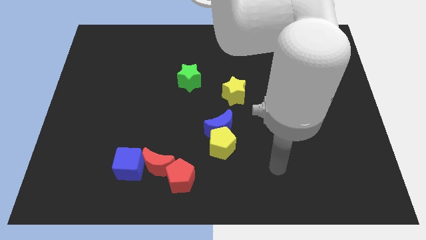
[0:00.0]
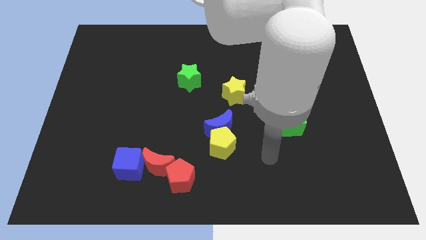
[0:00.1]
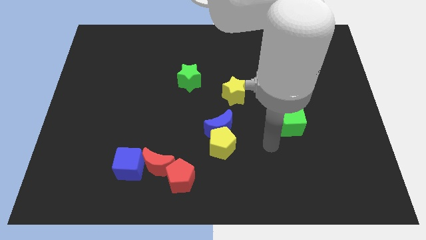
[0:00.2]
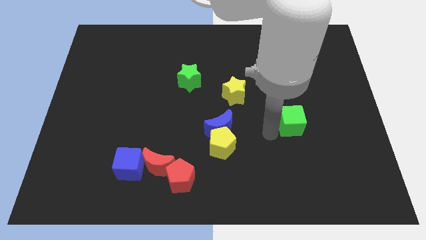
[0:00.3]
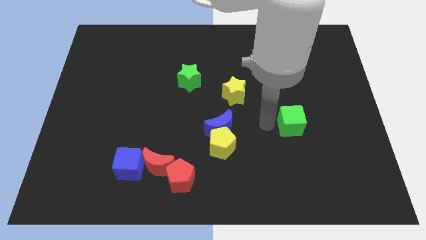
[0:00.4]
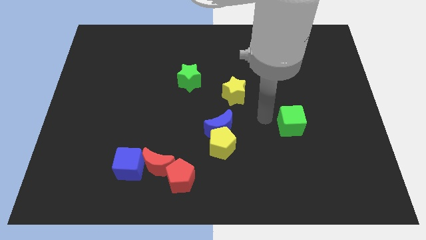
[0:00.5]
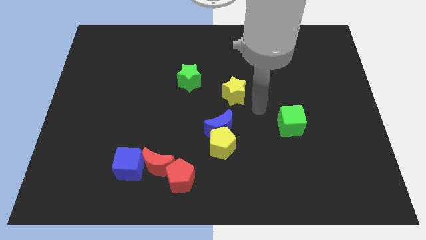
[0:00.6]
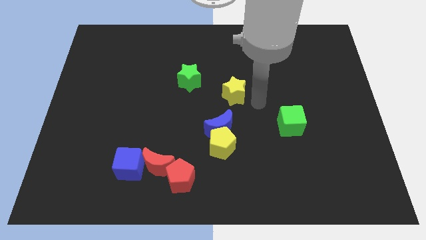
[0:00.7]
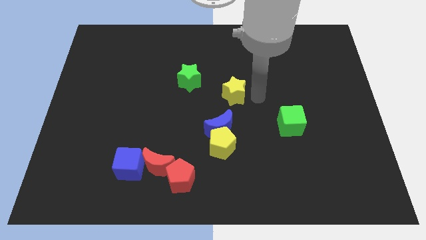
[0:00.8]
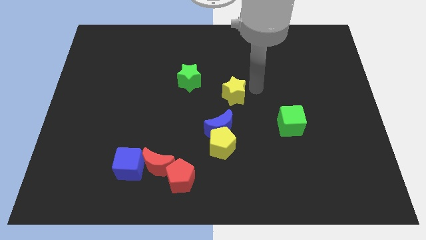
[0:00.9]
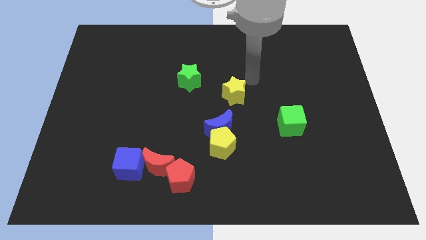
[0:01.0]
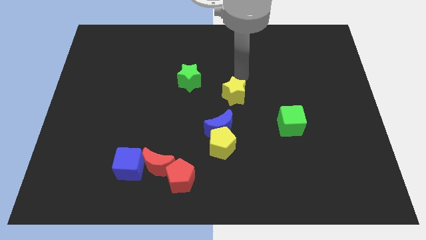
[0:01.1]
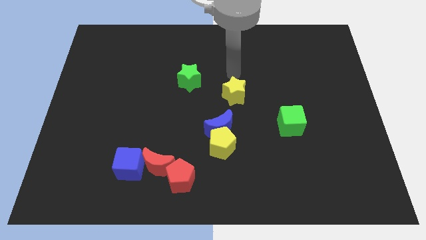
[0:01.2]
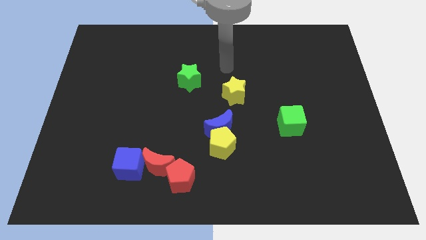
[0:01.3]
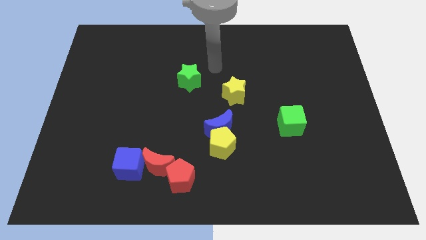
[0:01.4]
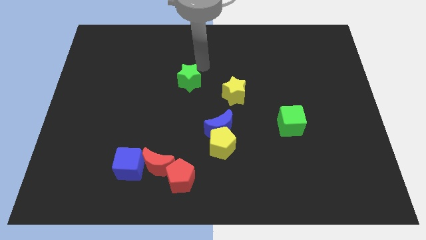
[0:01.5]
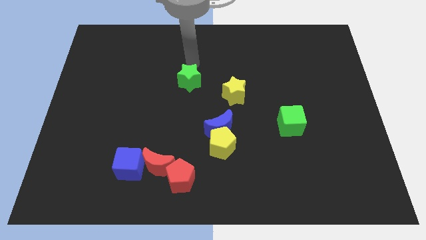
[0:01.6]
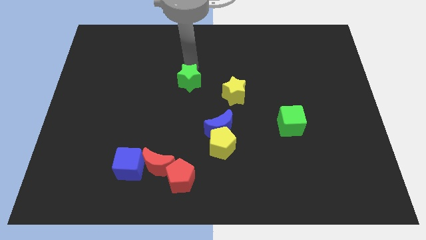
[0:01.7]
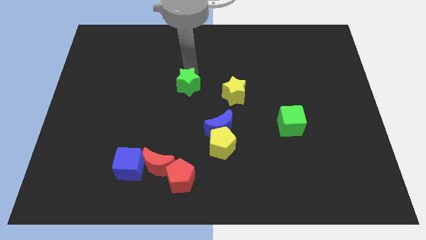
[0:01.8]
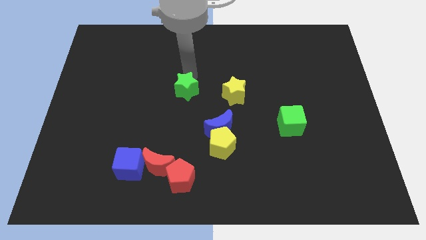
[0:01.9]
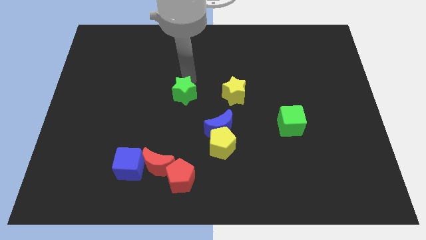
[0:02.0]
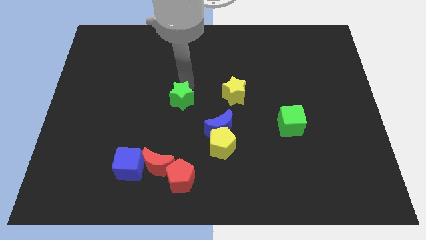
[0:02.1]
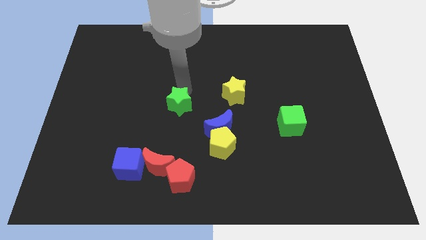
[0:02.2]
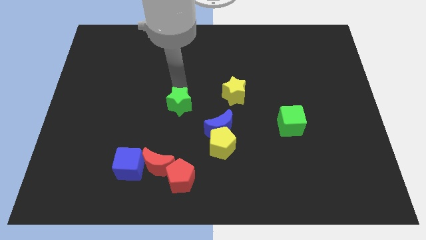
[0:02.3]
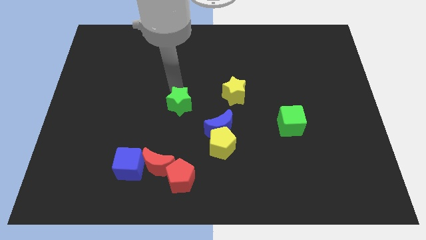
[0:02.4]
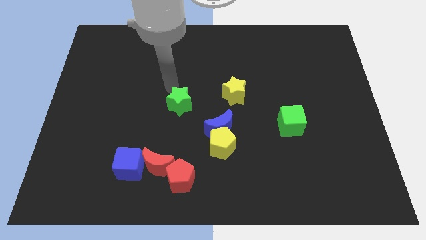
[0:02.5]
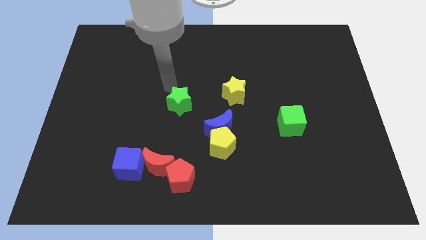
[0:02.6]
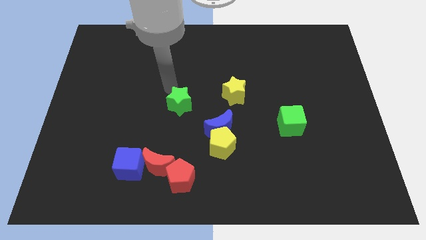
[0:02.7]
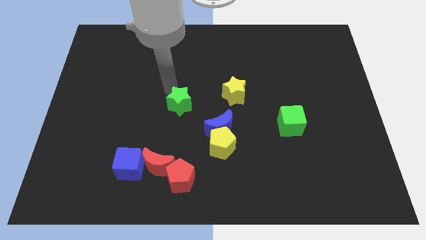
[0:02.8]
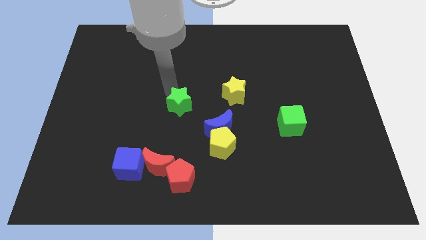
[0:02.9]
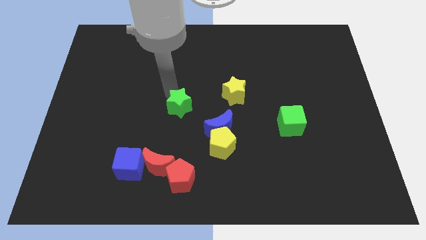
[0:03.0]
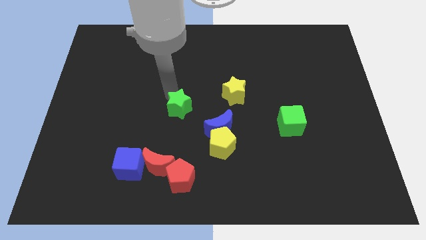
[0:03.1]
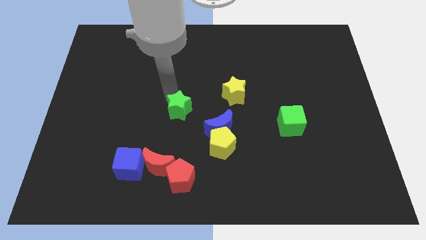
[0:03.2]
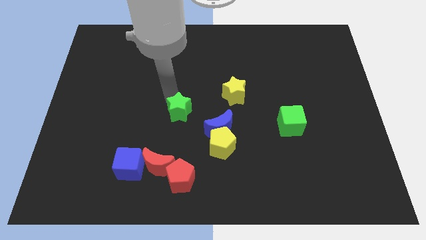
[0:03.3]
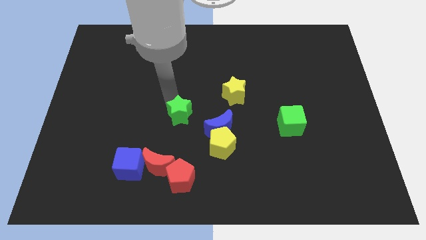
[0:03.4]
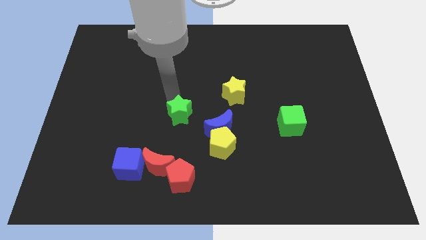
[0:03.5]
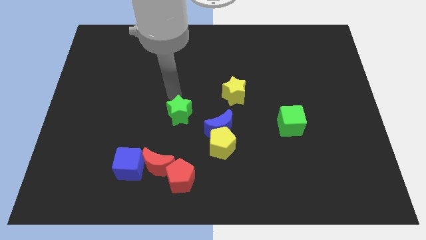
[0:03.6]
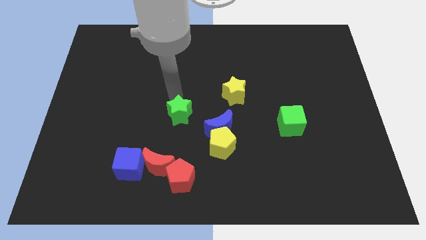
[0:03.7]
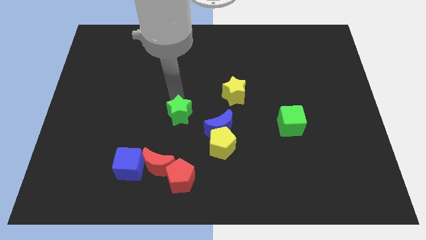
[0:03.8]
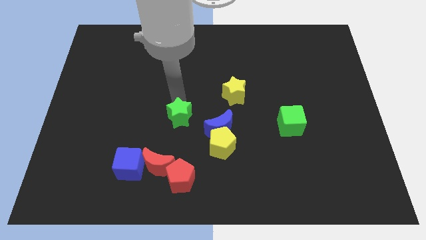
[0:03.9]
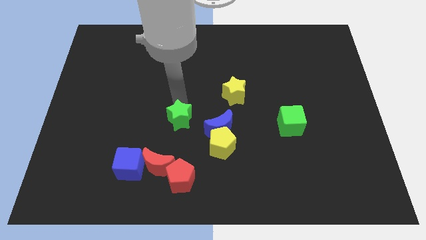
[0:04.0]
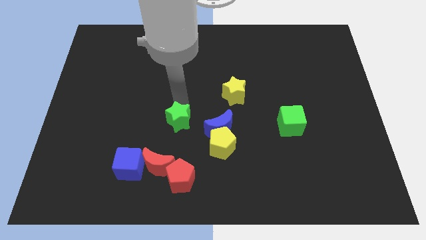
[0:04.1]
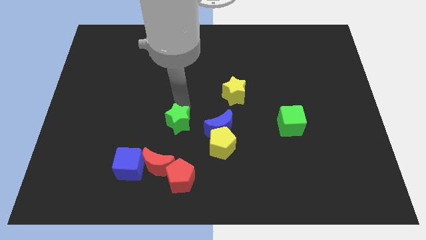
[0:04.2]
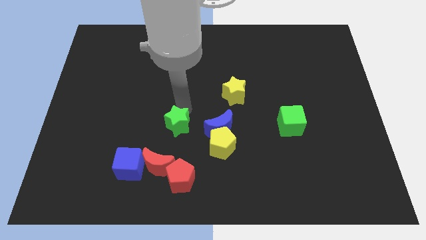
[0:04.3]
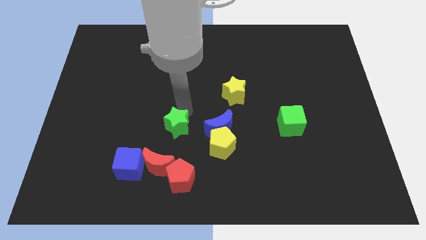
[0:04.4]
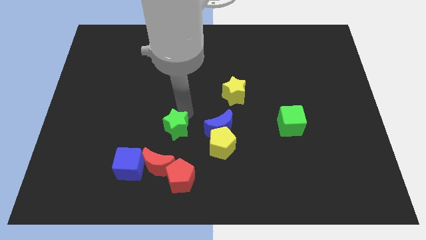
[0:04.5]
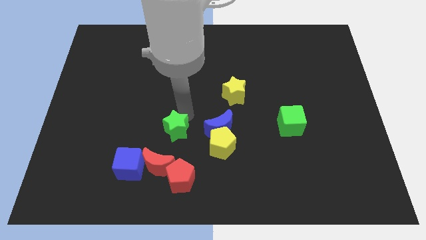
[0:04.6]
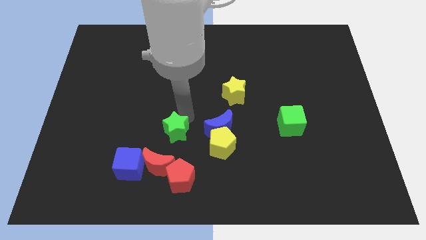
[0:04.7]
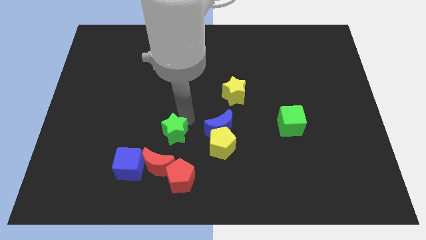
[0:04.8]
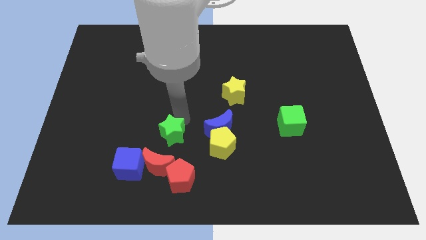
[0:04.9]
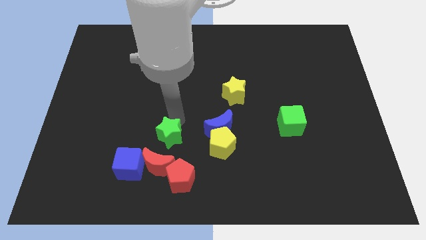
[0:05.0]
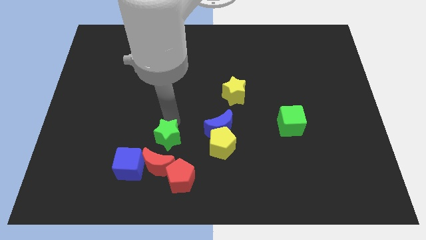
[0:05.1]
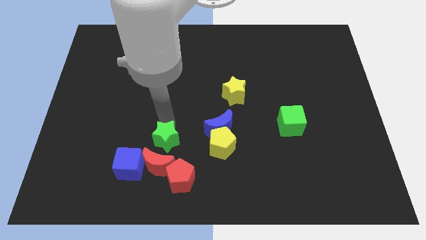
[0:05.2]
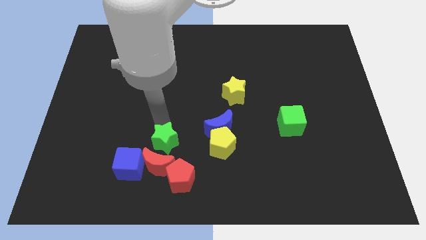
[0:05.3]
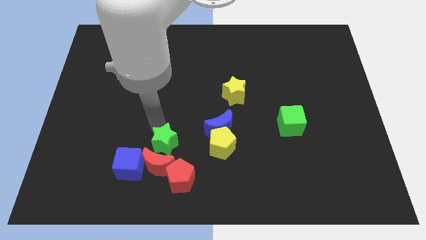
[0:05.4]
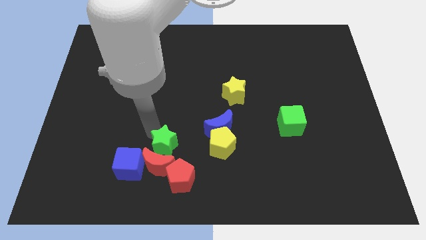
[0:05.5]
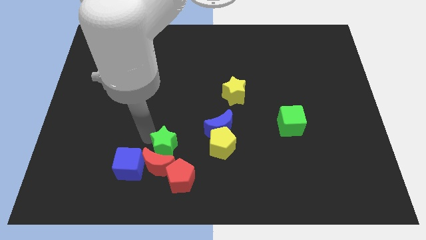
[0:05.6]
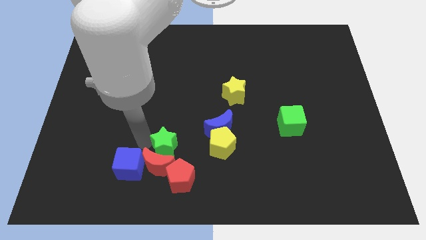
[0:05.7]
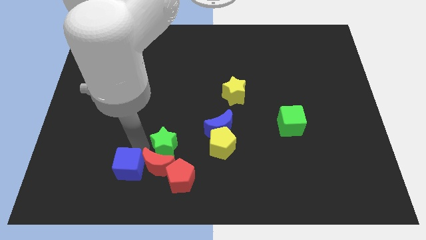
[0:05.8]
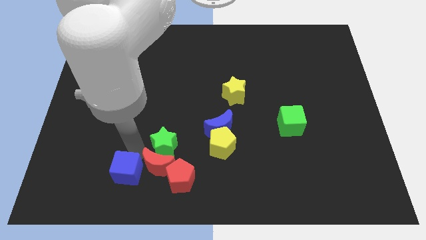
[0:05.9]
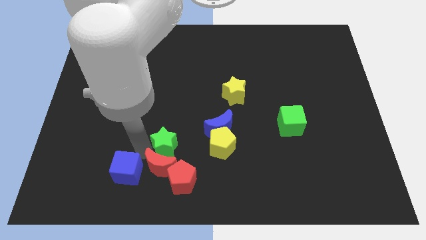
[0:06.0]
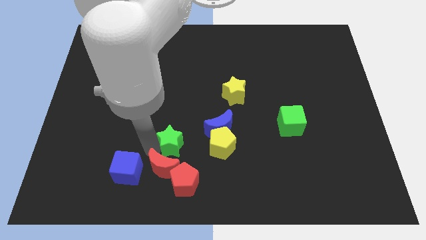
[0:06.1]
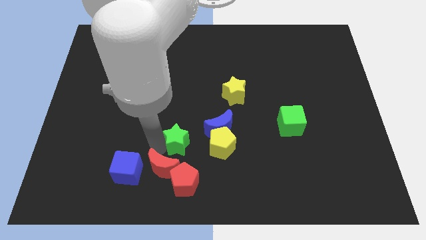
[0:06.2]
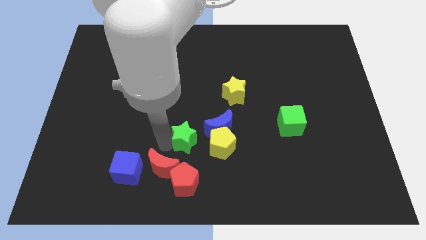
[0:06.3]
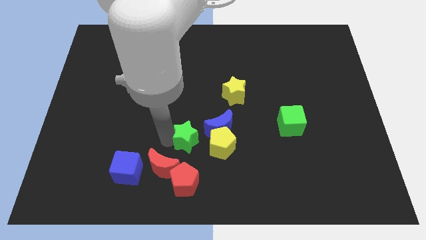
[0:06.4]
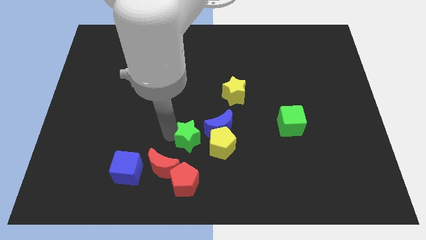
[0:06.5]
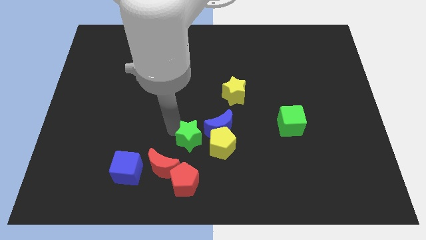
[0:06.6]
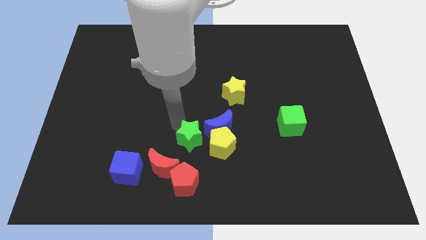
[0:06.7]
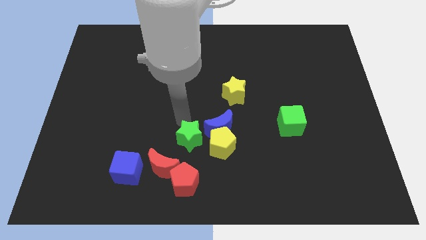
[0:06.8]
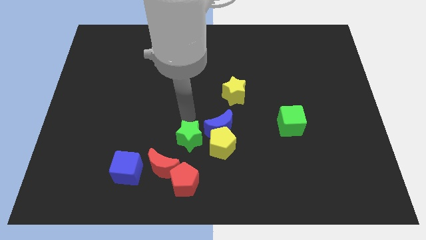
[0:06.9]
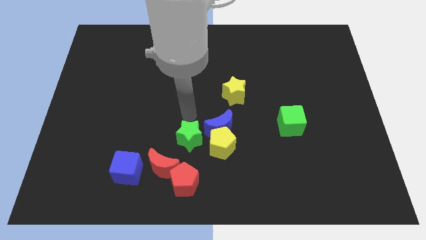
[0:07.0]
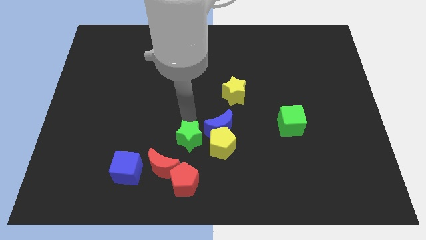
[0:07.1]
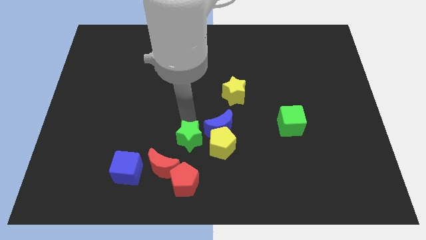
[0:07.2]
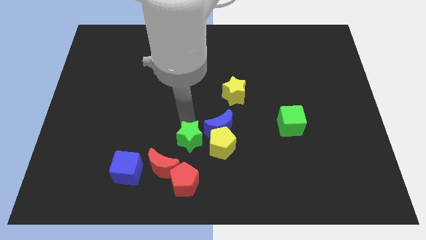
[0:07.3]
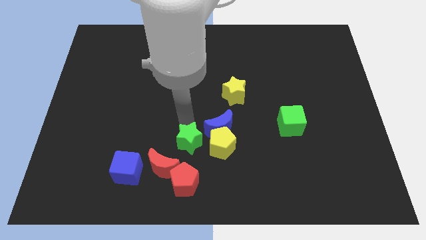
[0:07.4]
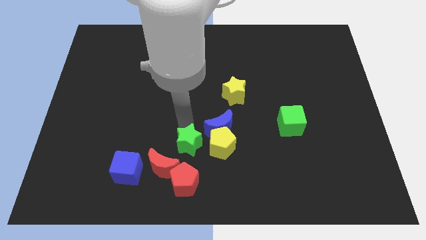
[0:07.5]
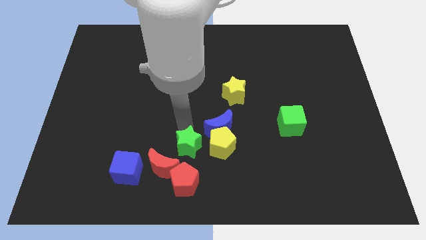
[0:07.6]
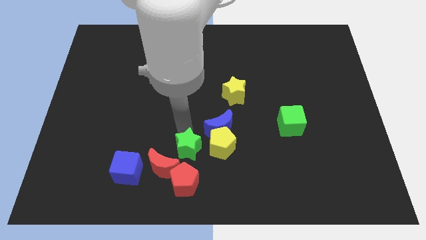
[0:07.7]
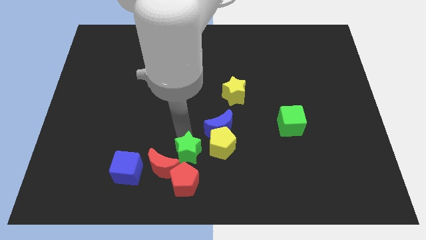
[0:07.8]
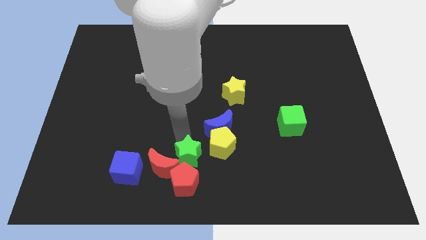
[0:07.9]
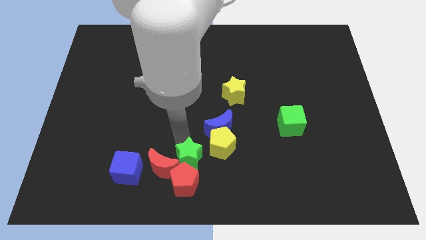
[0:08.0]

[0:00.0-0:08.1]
push the green star to the bottom
